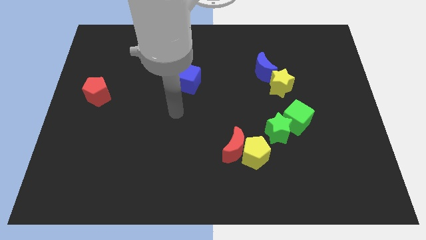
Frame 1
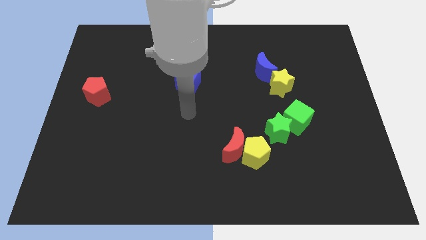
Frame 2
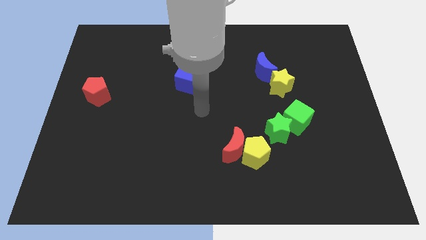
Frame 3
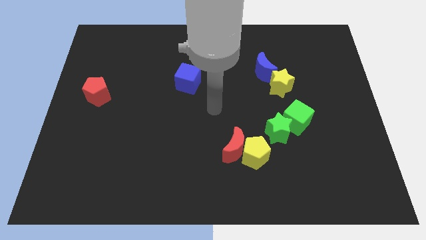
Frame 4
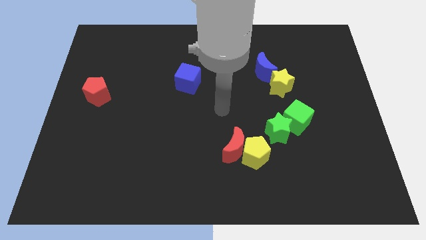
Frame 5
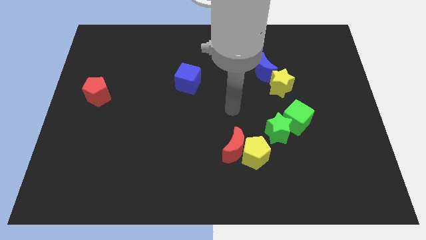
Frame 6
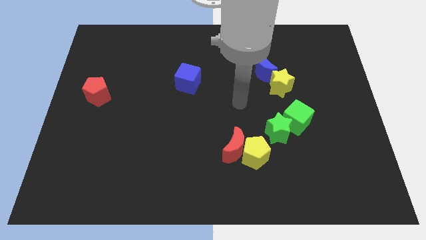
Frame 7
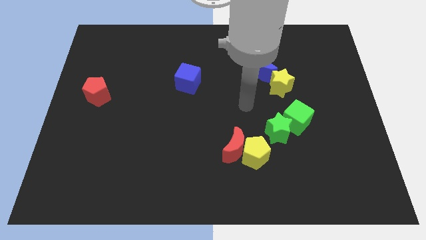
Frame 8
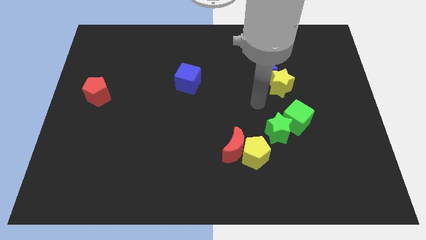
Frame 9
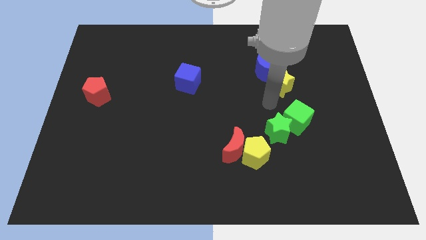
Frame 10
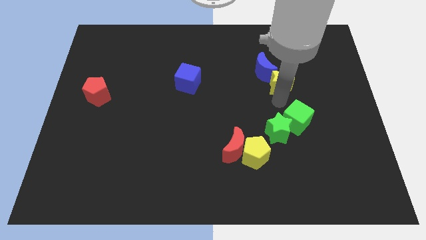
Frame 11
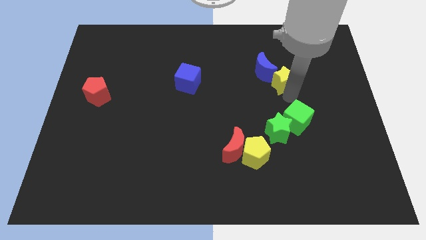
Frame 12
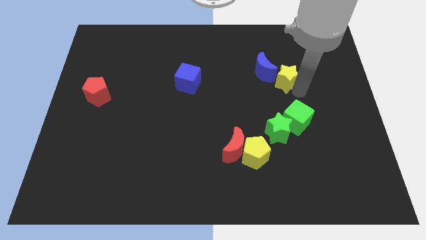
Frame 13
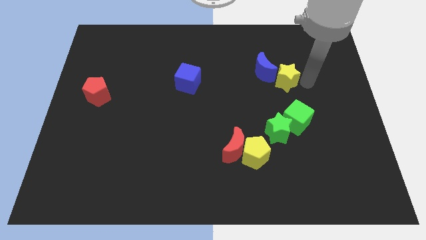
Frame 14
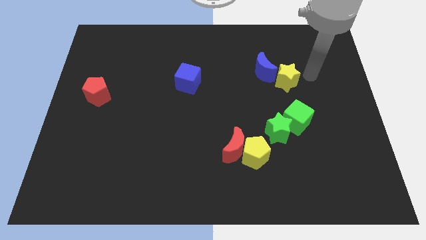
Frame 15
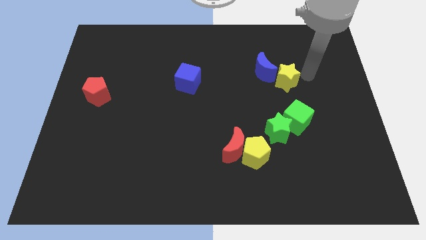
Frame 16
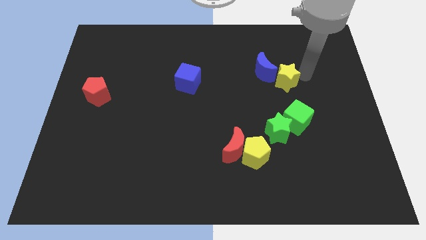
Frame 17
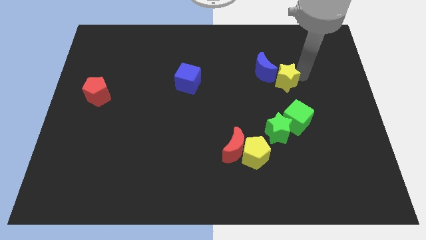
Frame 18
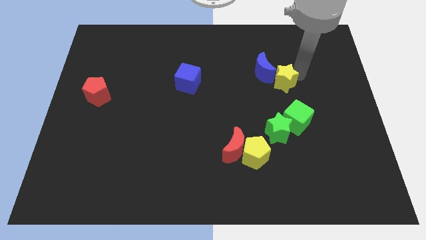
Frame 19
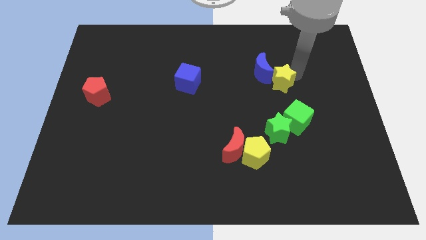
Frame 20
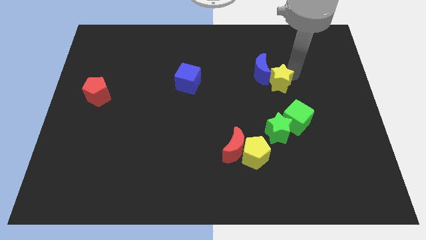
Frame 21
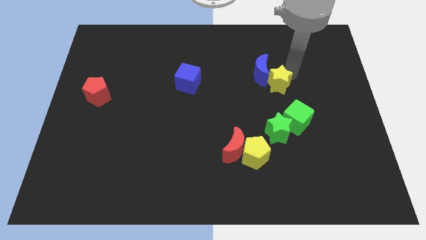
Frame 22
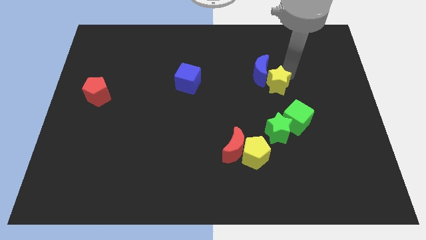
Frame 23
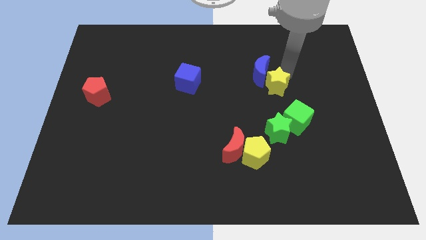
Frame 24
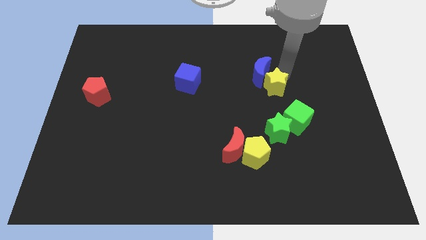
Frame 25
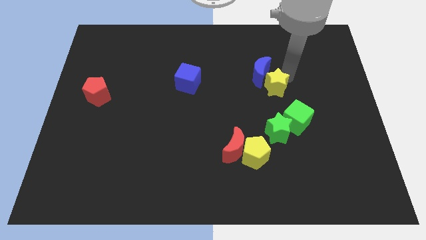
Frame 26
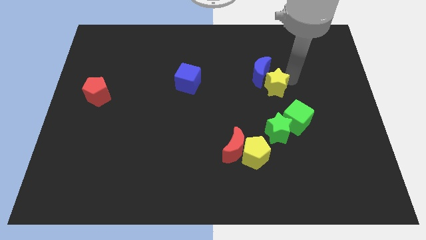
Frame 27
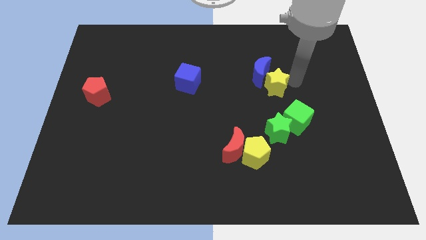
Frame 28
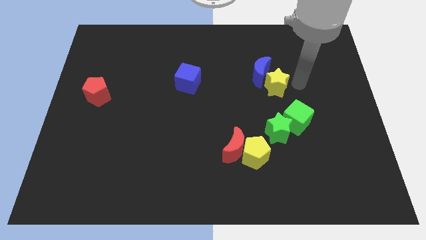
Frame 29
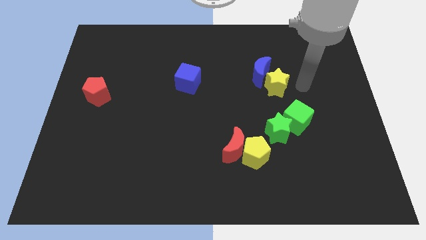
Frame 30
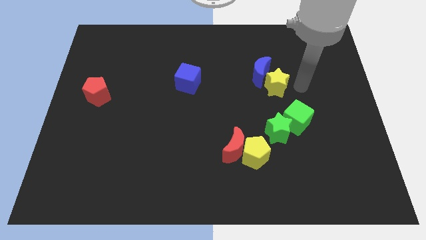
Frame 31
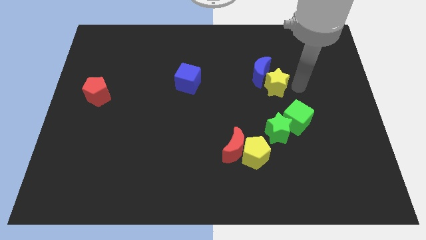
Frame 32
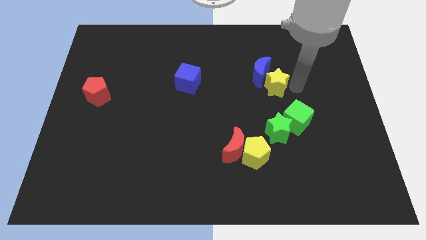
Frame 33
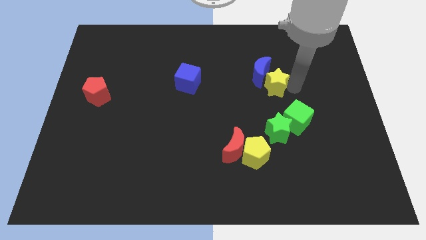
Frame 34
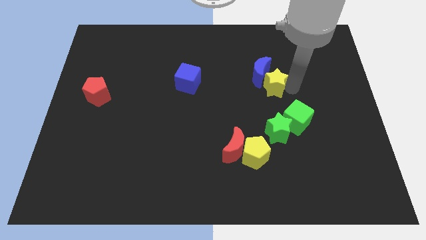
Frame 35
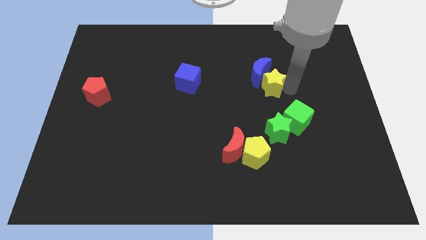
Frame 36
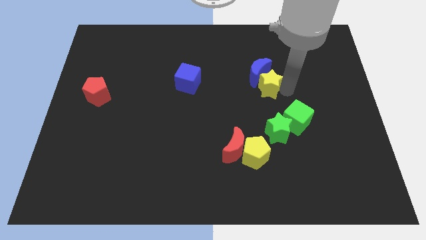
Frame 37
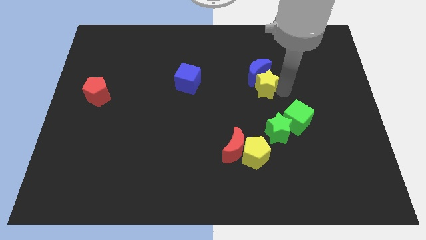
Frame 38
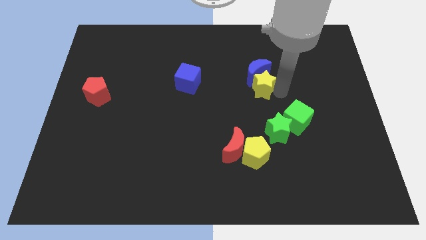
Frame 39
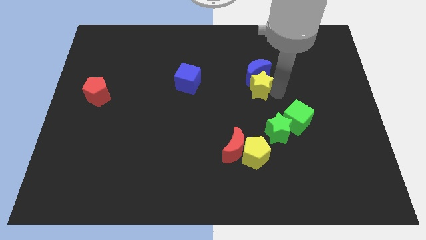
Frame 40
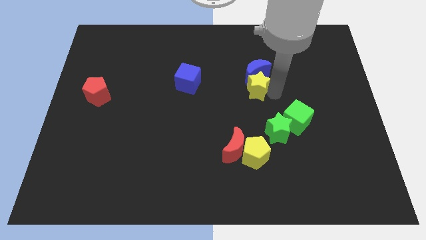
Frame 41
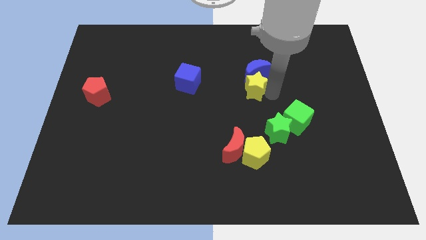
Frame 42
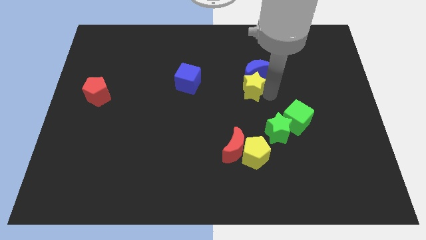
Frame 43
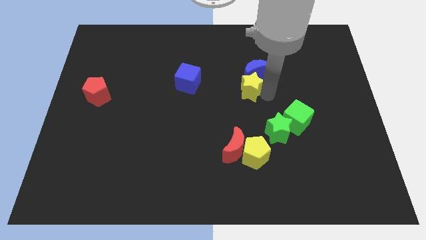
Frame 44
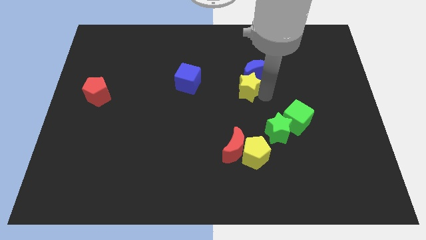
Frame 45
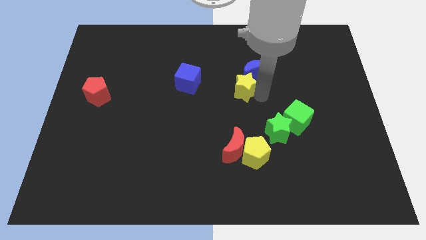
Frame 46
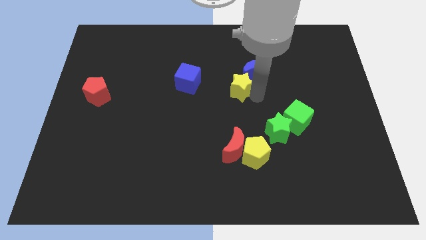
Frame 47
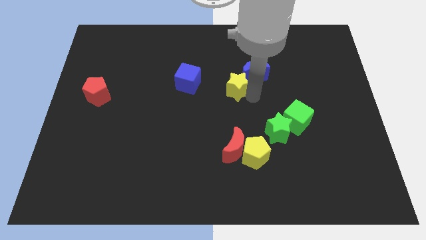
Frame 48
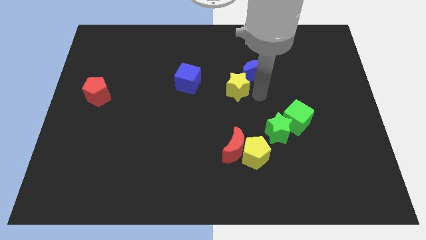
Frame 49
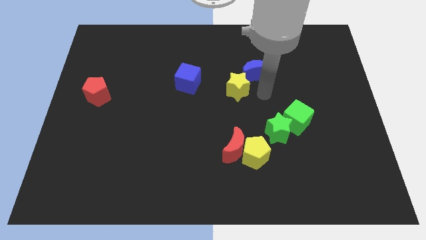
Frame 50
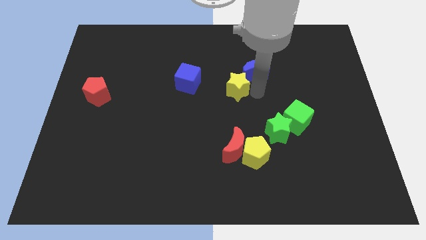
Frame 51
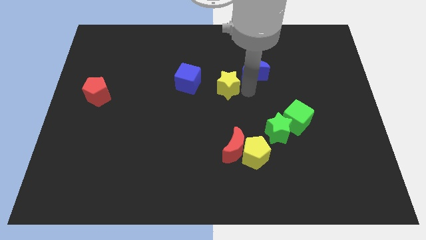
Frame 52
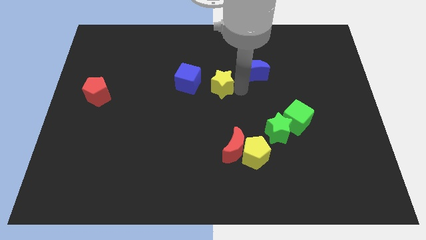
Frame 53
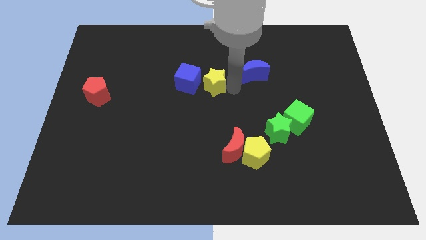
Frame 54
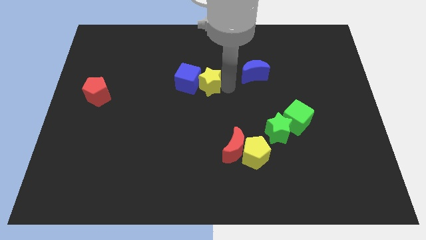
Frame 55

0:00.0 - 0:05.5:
slide the yellow star towards the blue cube

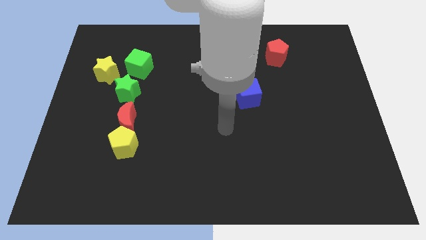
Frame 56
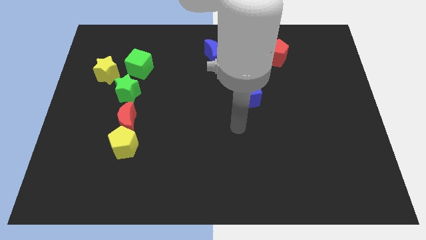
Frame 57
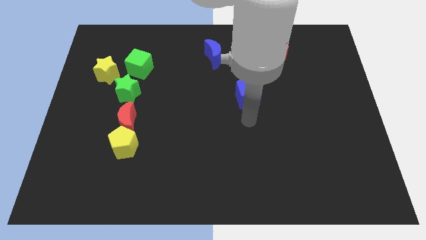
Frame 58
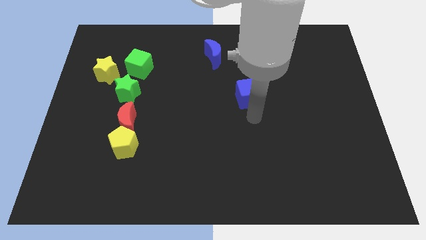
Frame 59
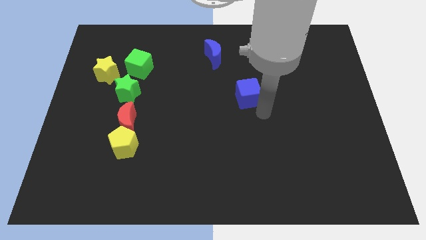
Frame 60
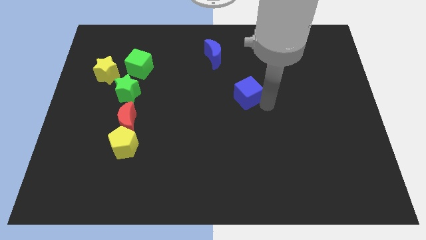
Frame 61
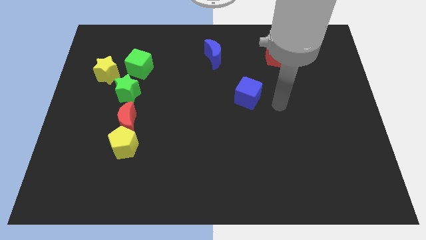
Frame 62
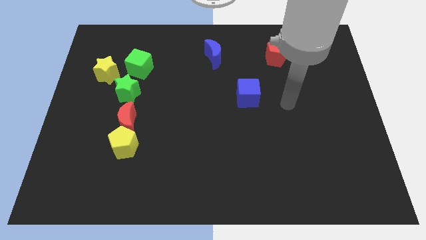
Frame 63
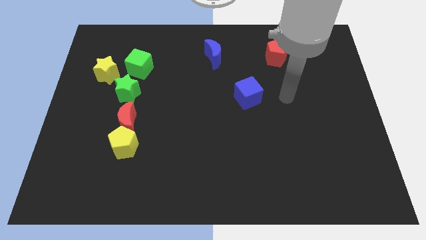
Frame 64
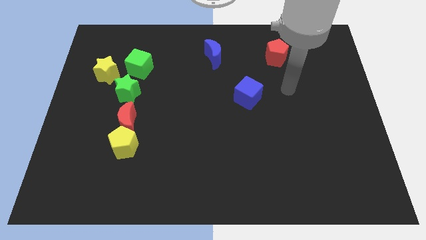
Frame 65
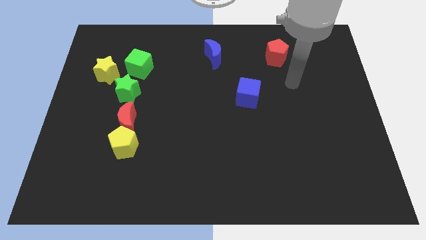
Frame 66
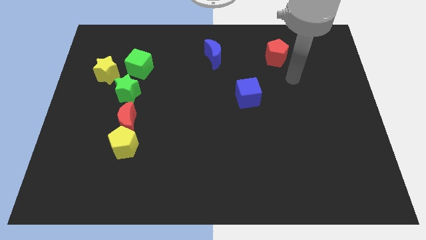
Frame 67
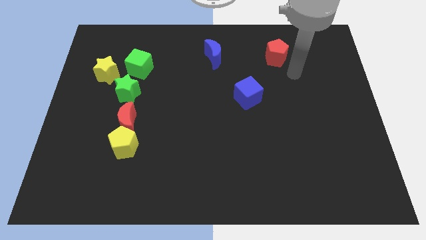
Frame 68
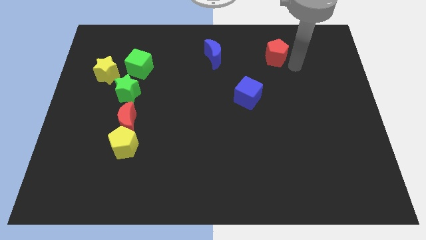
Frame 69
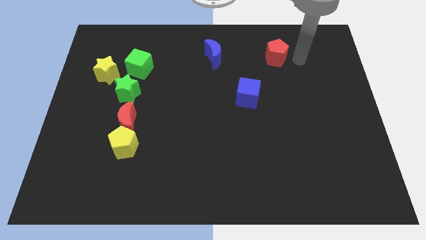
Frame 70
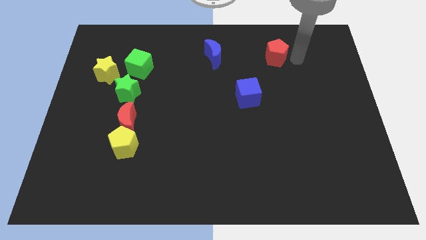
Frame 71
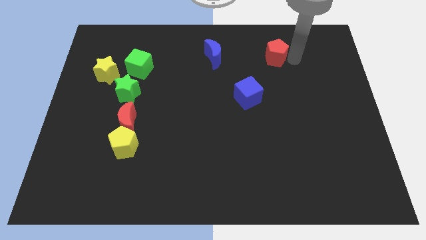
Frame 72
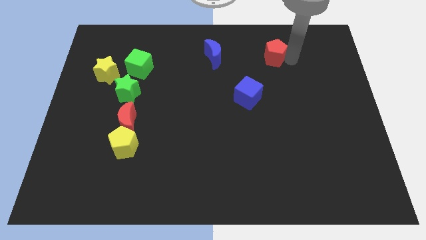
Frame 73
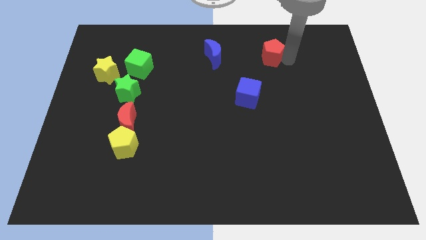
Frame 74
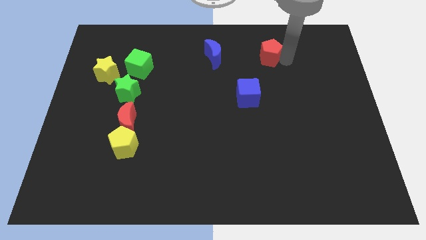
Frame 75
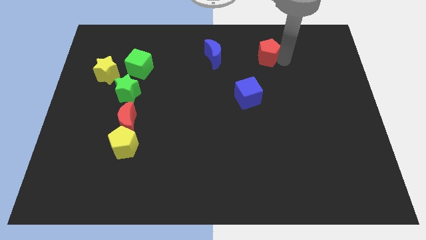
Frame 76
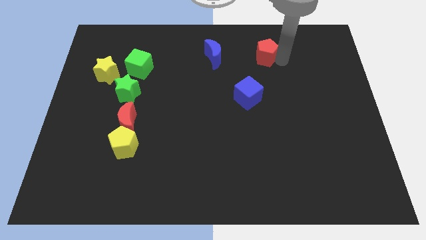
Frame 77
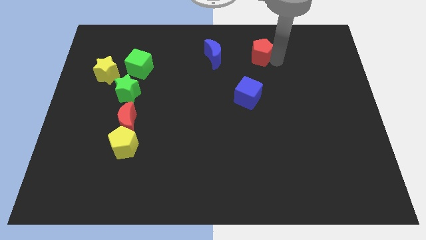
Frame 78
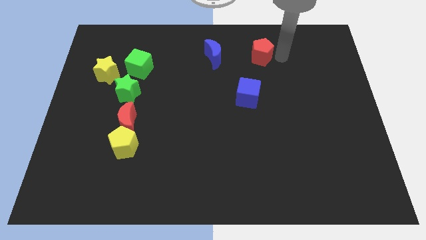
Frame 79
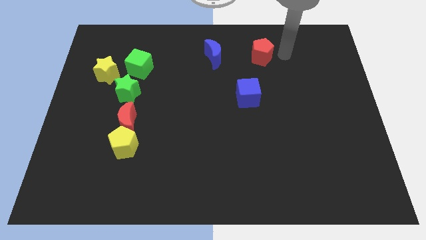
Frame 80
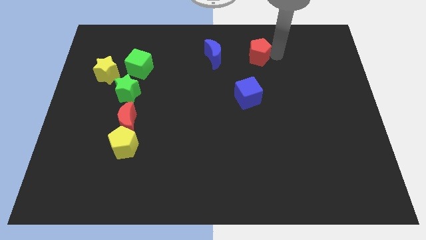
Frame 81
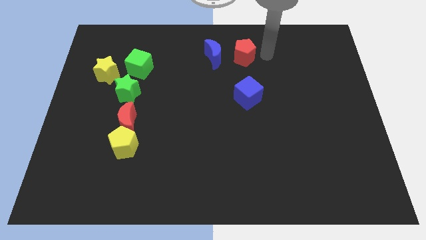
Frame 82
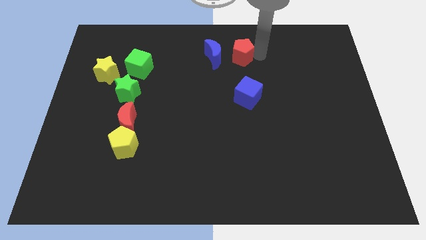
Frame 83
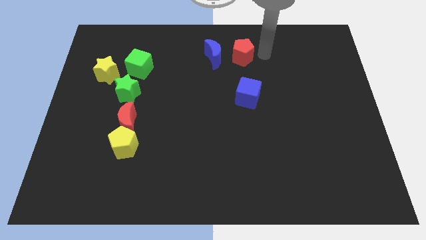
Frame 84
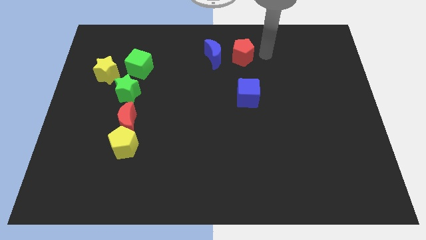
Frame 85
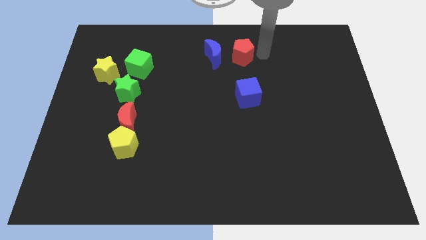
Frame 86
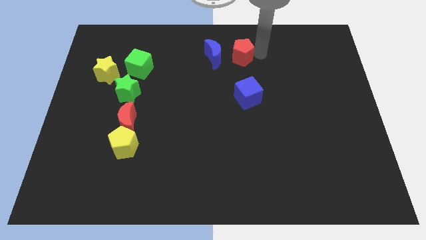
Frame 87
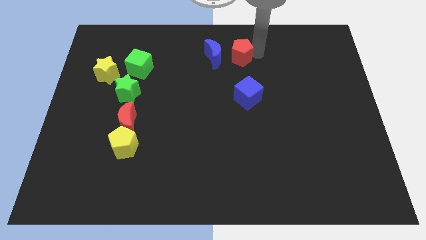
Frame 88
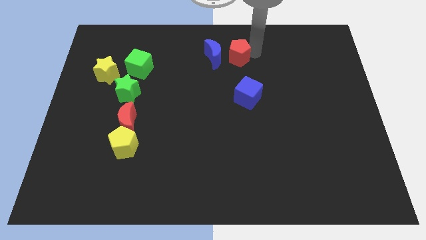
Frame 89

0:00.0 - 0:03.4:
slide the red pentagon next to the blue moon
